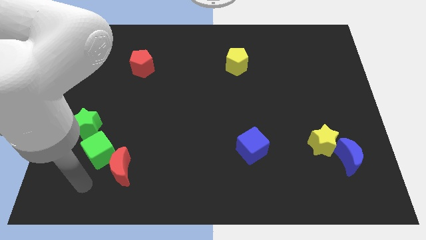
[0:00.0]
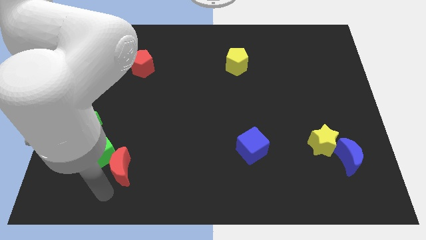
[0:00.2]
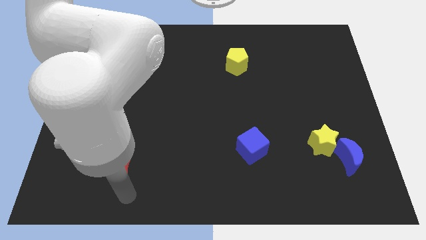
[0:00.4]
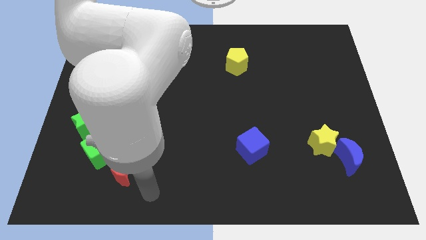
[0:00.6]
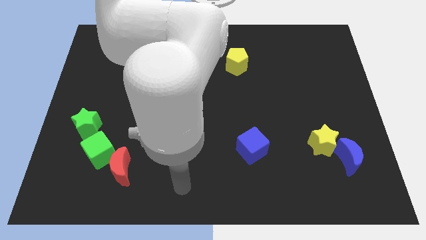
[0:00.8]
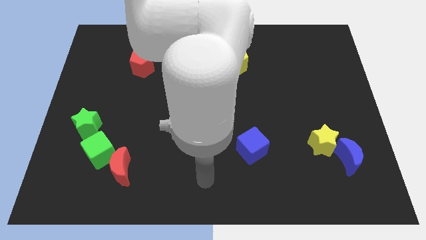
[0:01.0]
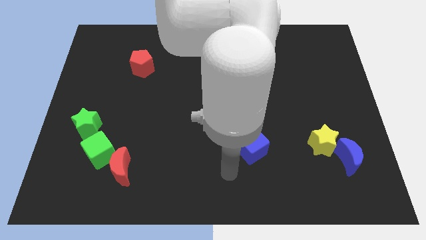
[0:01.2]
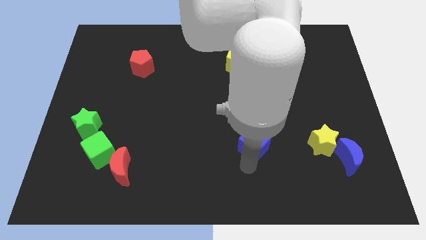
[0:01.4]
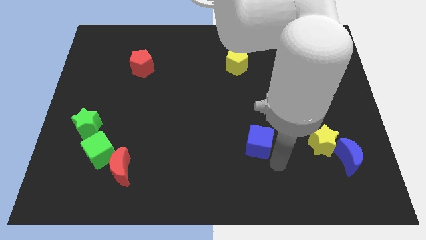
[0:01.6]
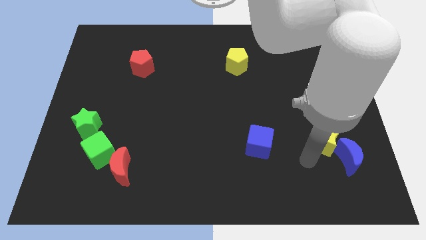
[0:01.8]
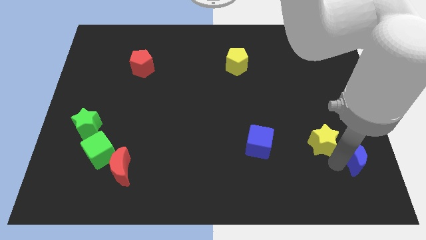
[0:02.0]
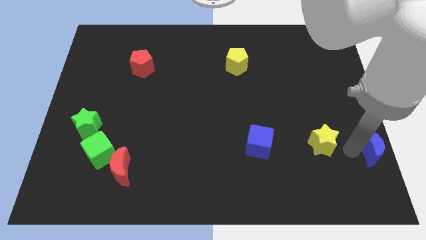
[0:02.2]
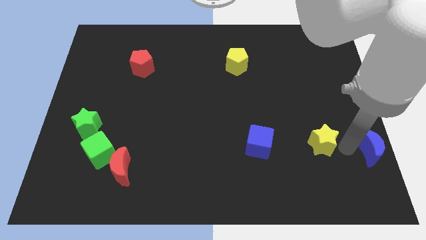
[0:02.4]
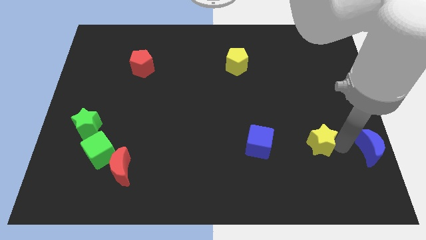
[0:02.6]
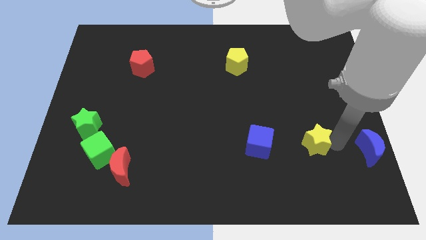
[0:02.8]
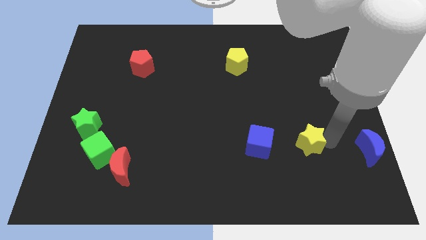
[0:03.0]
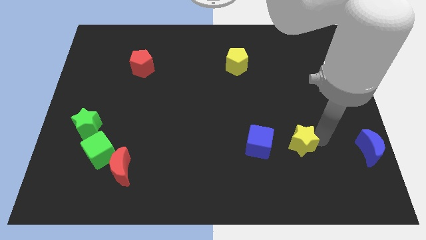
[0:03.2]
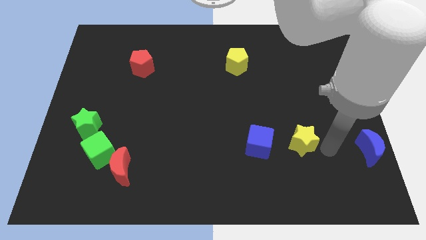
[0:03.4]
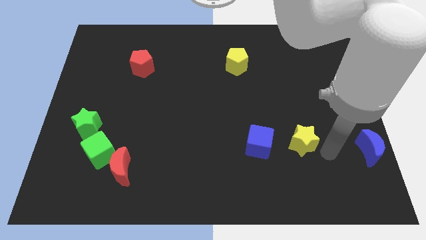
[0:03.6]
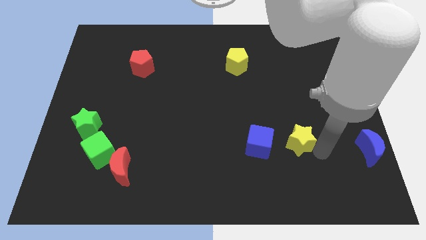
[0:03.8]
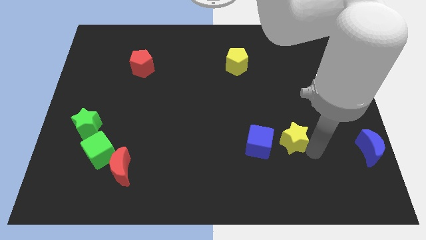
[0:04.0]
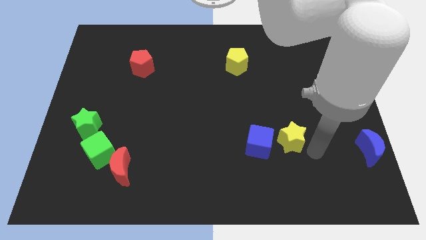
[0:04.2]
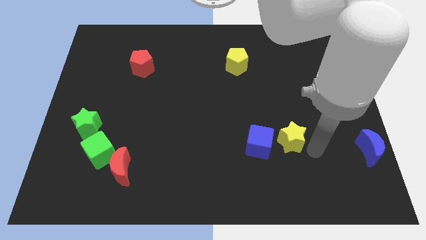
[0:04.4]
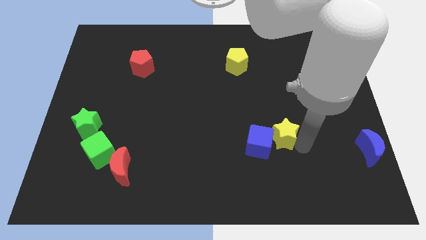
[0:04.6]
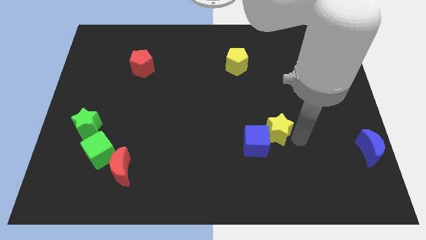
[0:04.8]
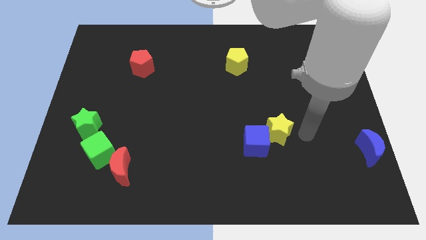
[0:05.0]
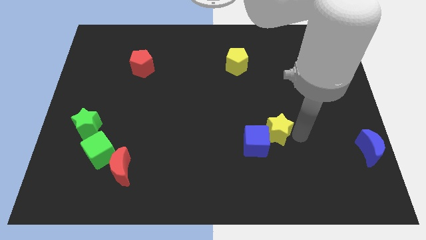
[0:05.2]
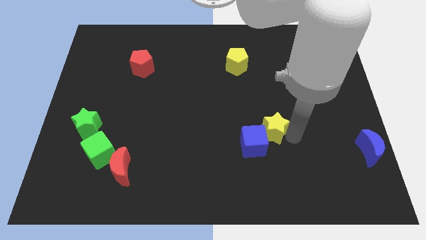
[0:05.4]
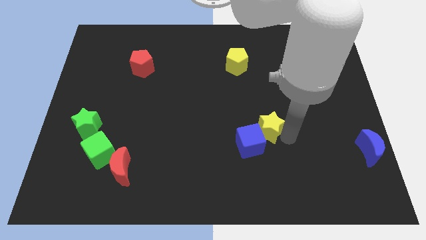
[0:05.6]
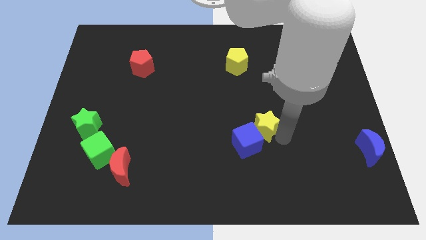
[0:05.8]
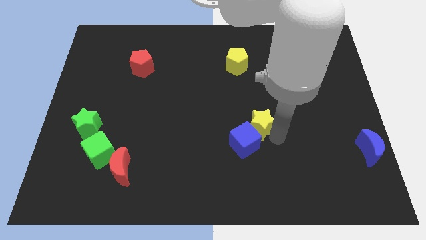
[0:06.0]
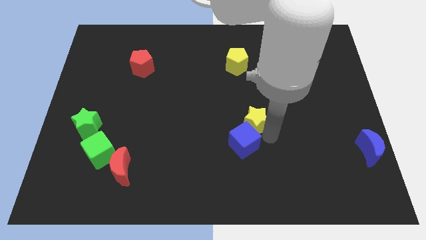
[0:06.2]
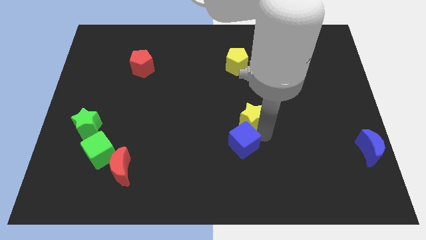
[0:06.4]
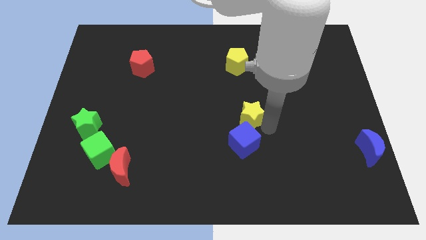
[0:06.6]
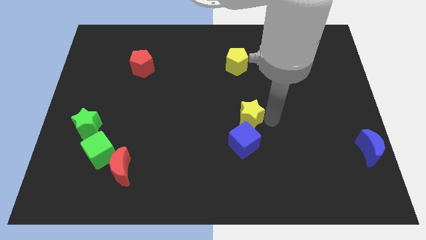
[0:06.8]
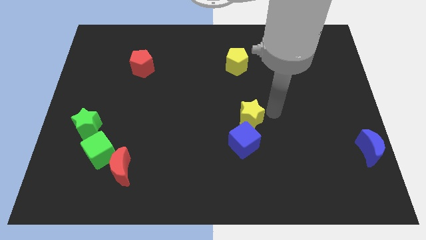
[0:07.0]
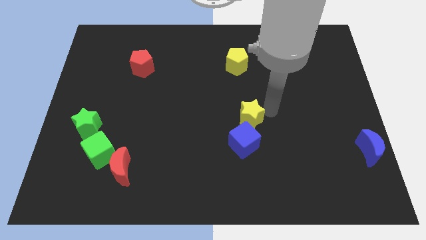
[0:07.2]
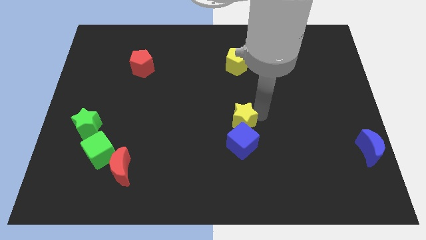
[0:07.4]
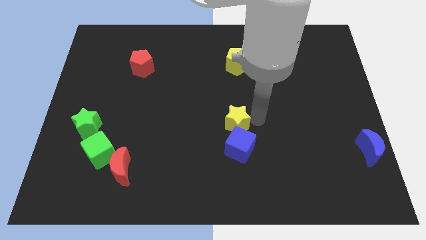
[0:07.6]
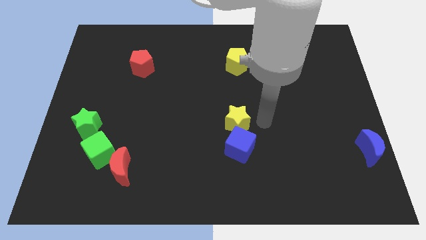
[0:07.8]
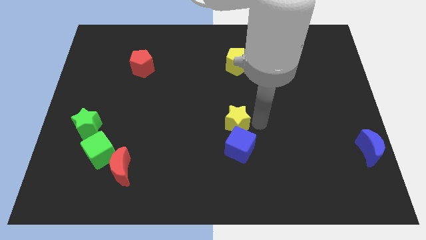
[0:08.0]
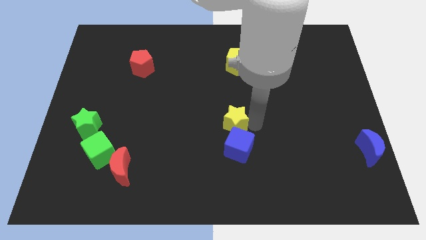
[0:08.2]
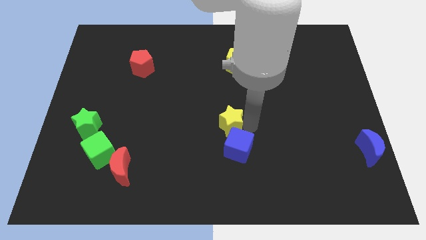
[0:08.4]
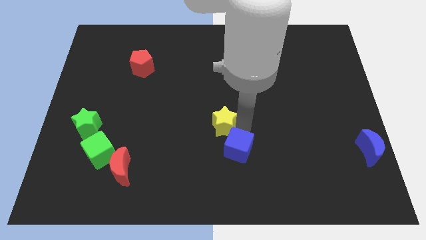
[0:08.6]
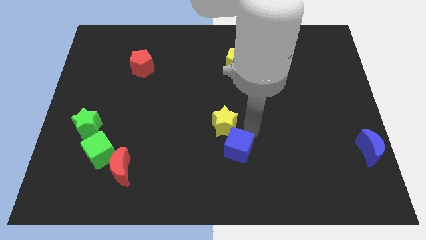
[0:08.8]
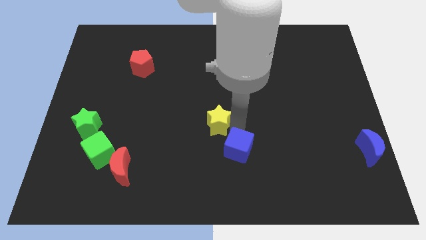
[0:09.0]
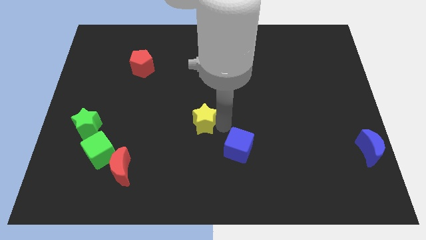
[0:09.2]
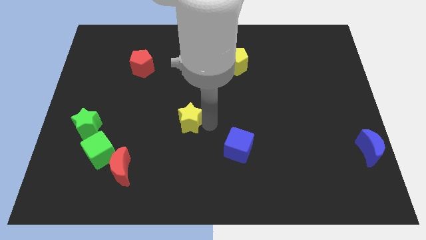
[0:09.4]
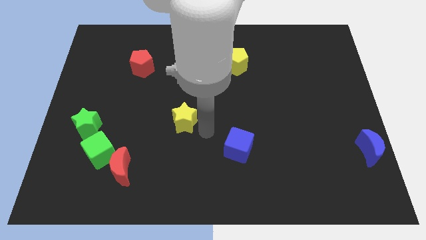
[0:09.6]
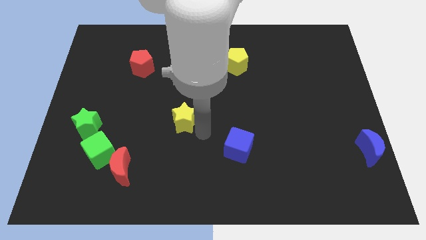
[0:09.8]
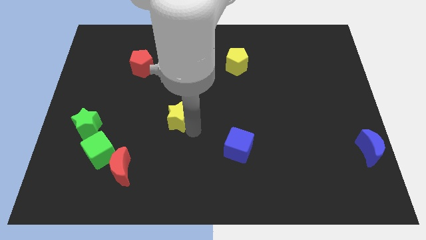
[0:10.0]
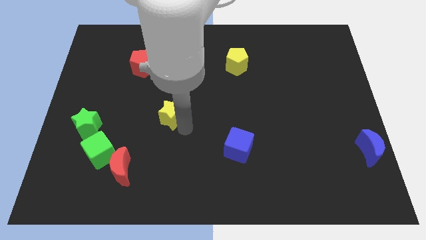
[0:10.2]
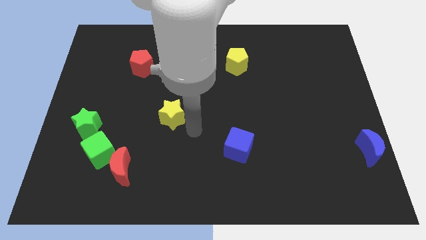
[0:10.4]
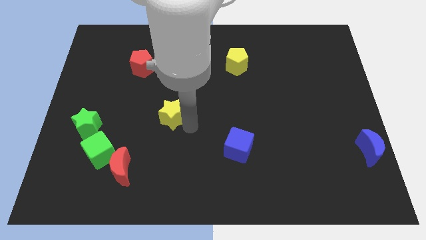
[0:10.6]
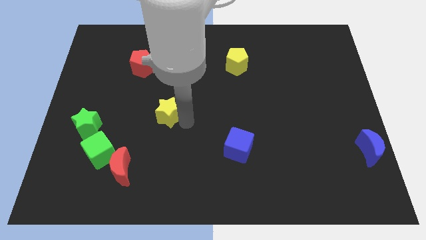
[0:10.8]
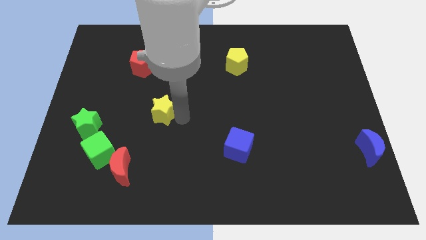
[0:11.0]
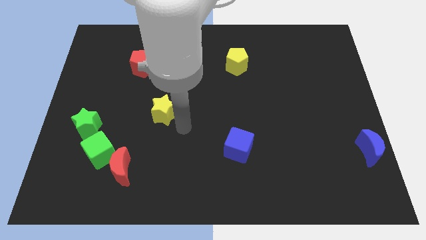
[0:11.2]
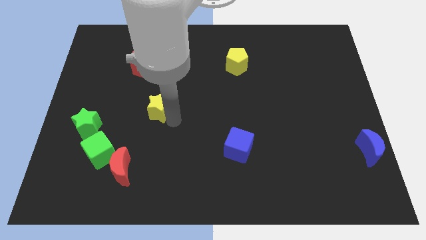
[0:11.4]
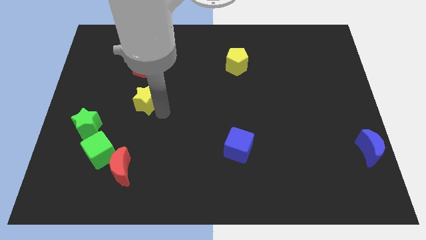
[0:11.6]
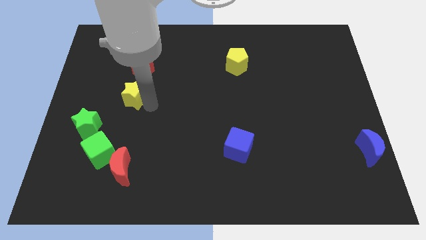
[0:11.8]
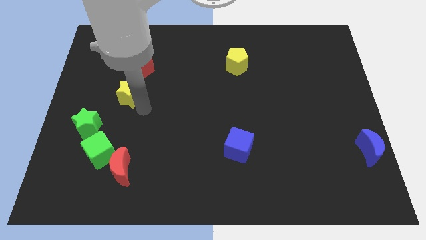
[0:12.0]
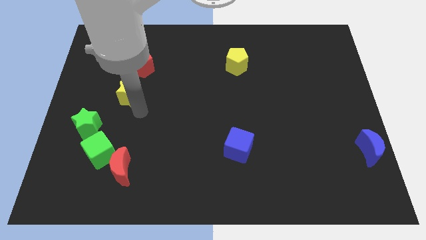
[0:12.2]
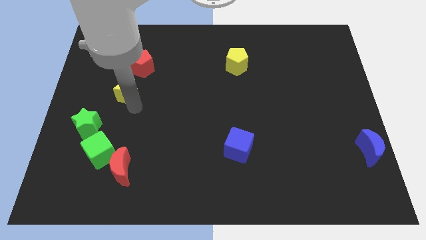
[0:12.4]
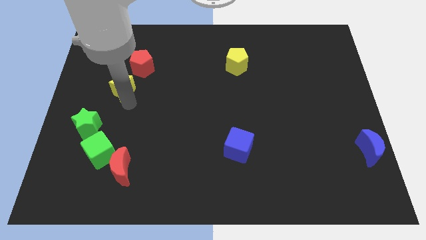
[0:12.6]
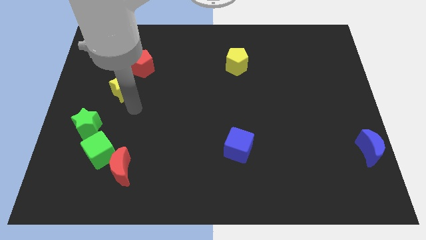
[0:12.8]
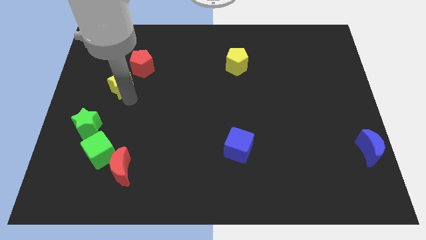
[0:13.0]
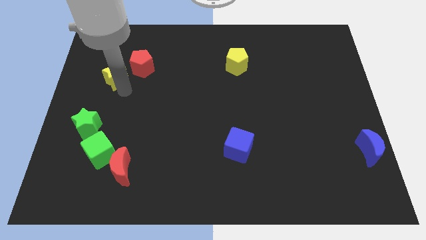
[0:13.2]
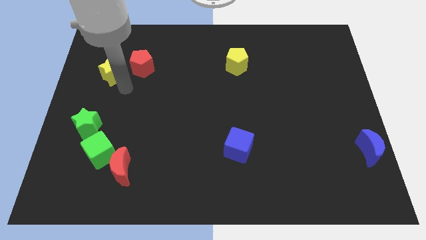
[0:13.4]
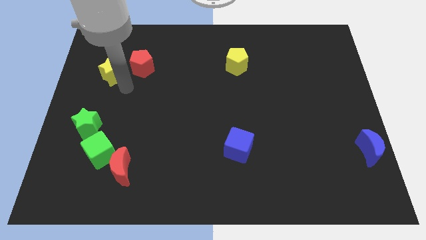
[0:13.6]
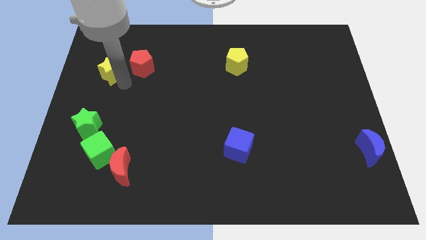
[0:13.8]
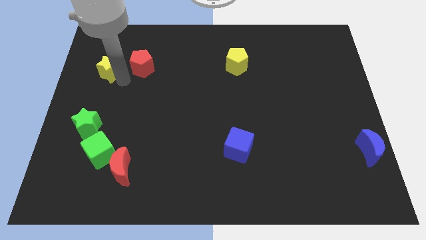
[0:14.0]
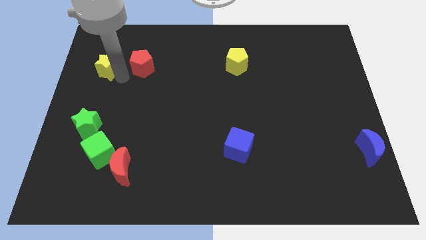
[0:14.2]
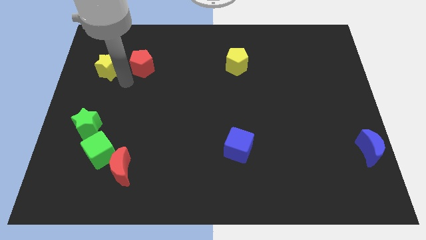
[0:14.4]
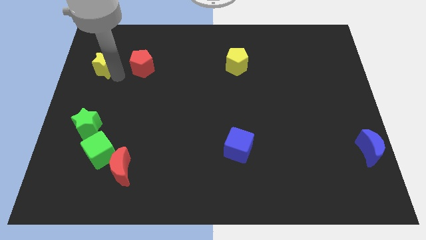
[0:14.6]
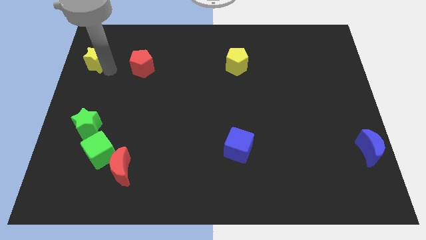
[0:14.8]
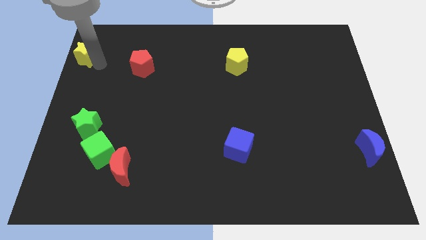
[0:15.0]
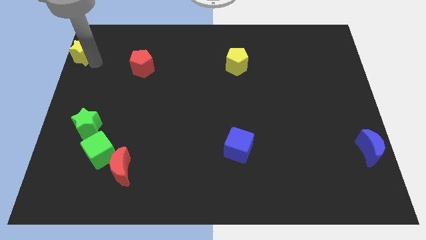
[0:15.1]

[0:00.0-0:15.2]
move the yellow star to the top left
